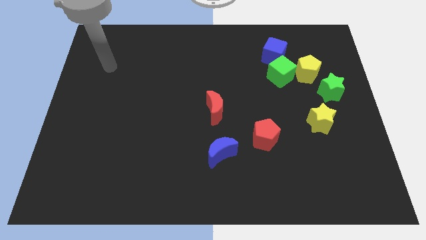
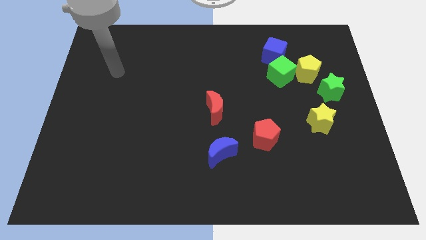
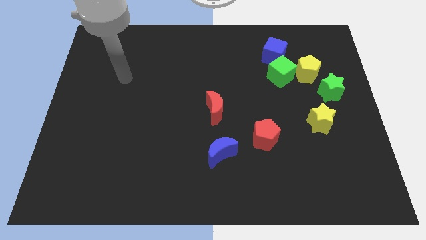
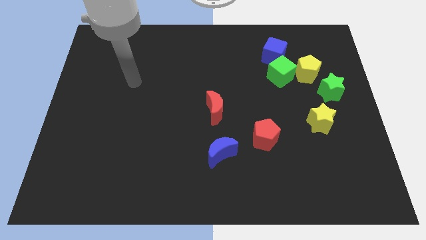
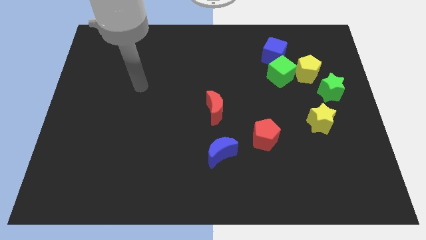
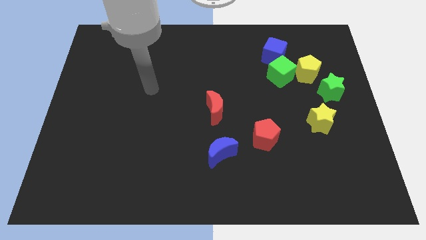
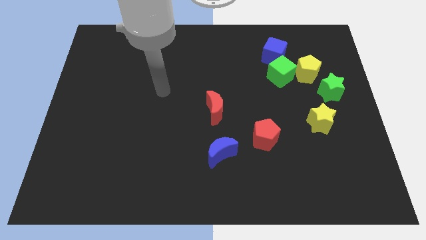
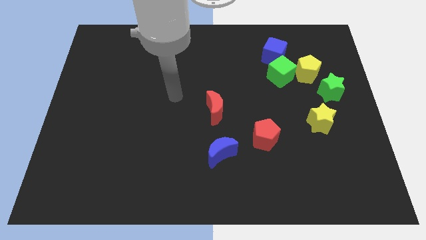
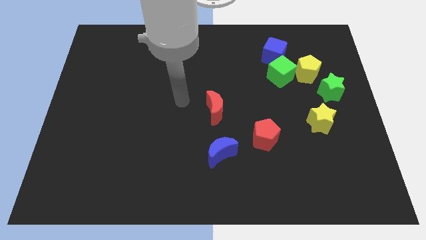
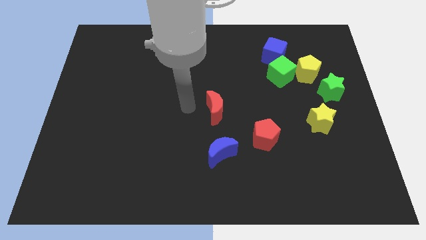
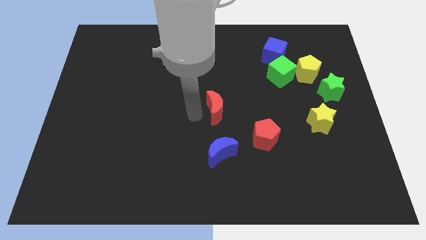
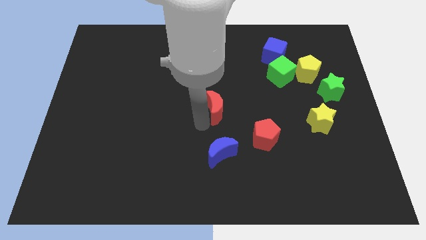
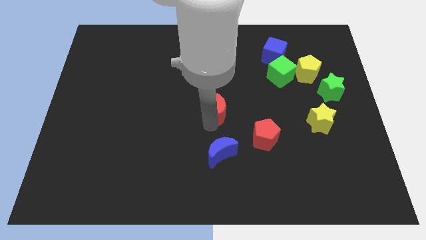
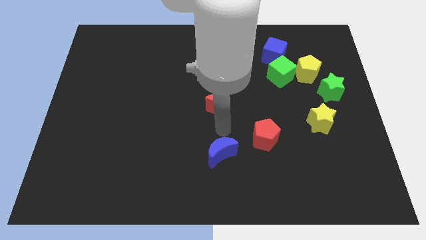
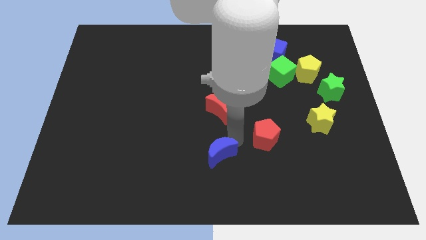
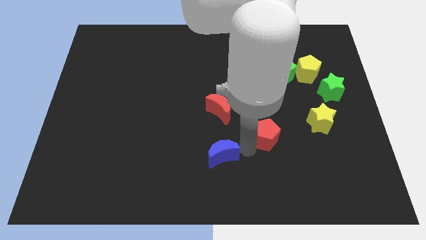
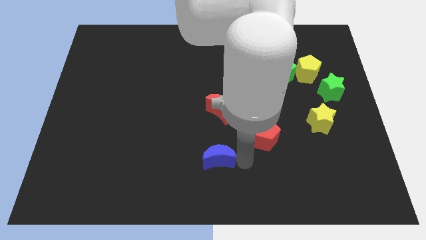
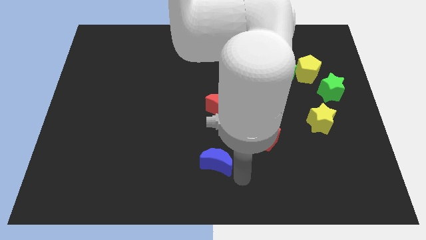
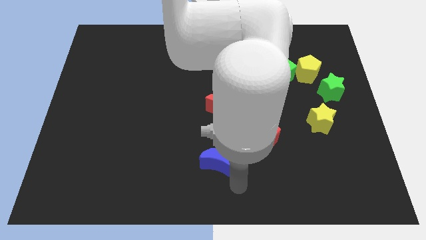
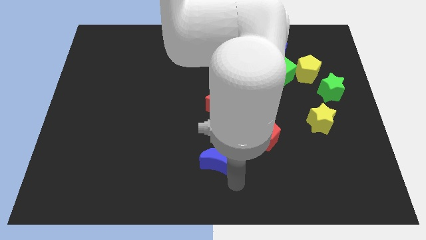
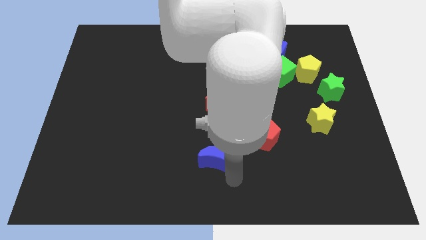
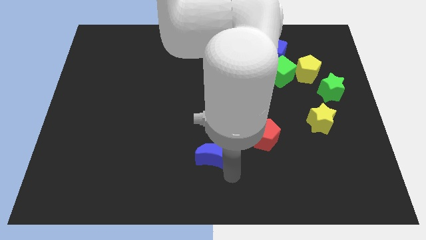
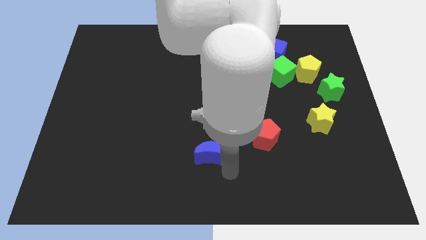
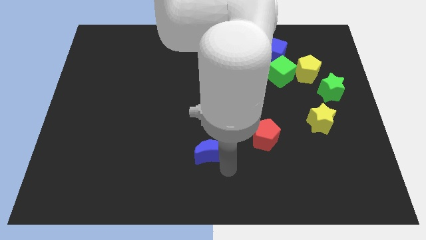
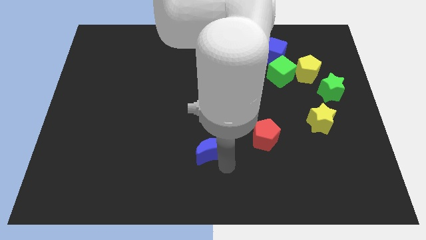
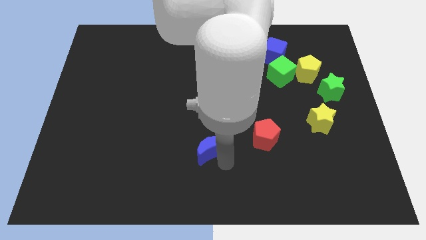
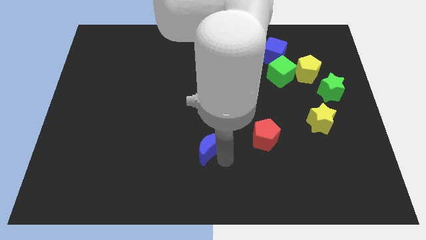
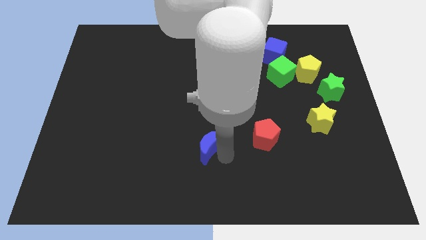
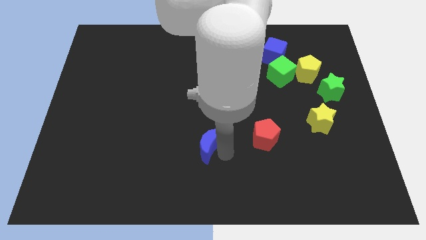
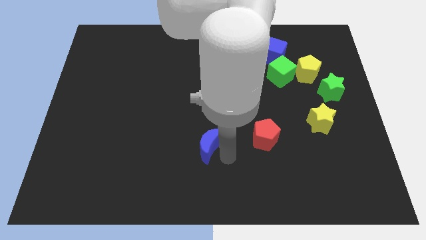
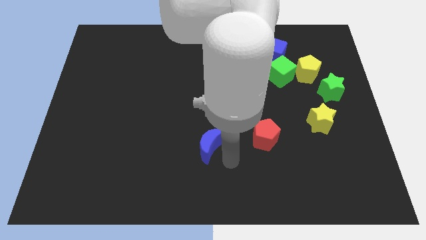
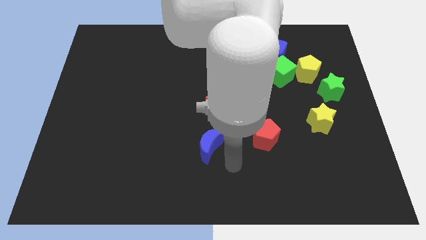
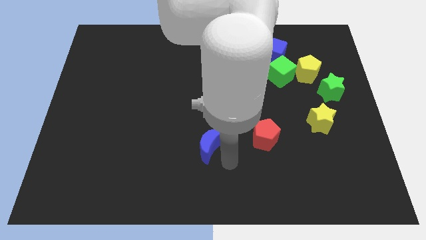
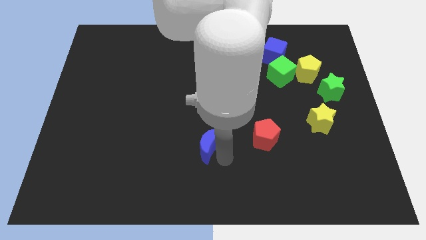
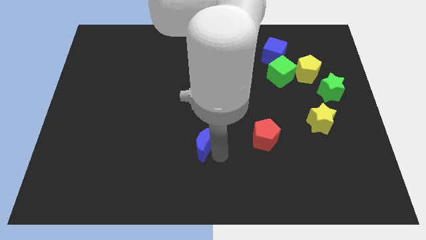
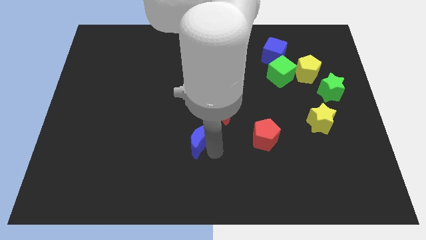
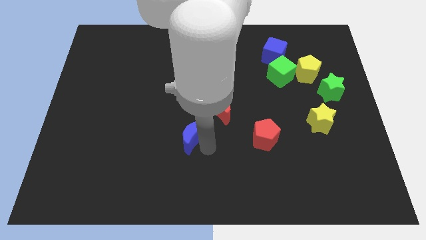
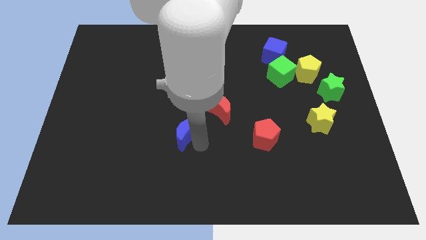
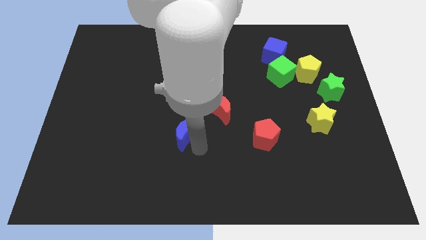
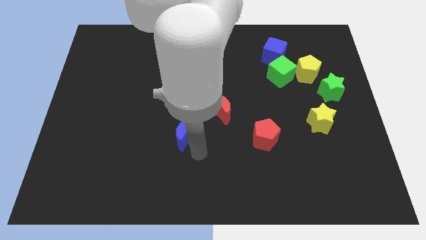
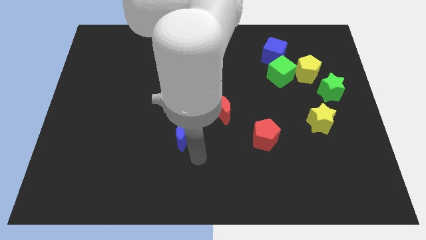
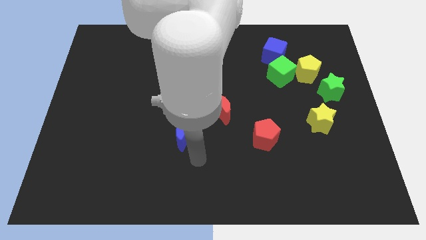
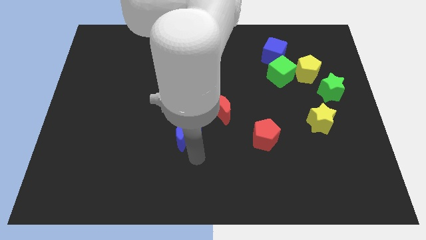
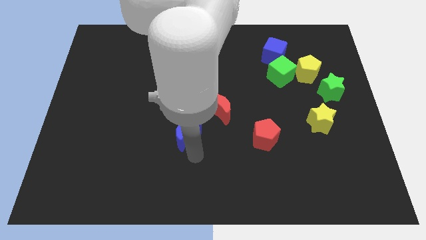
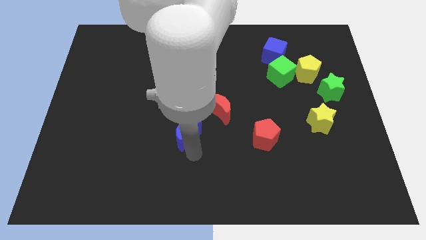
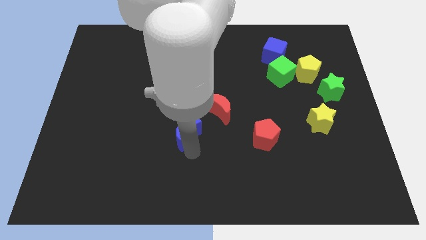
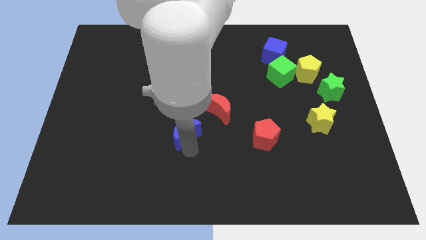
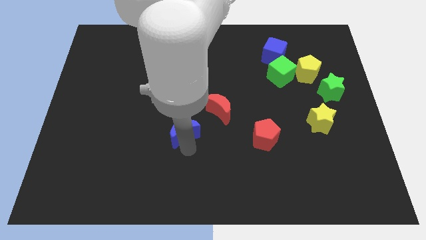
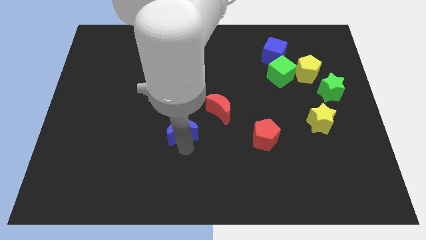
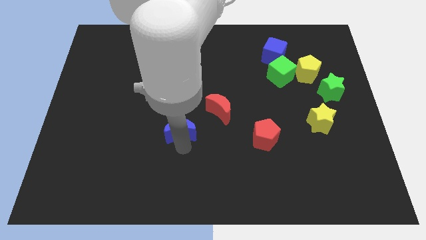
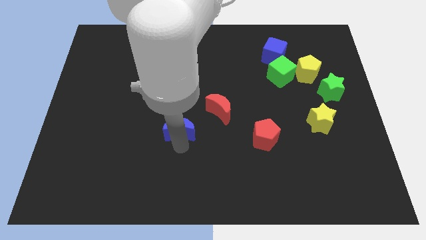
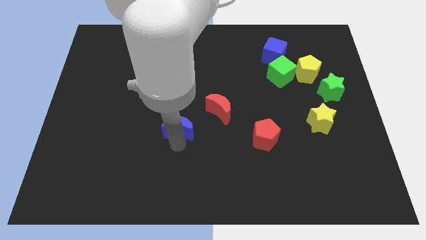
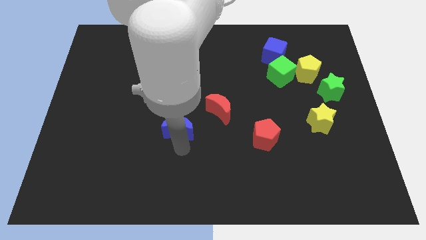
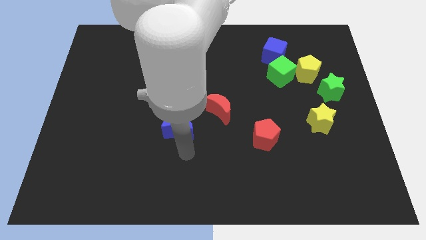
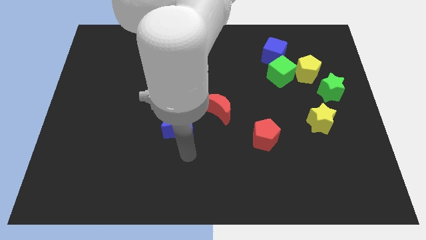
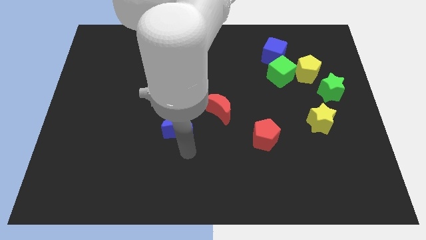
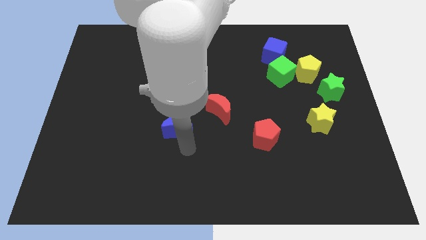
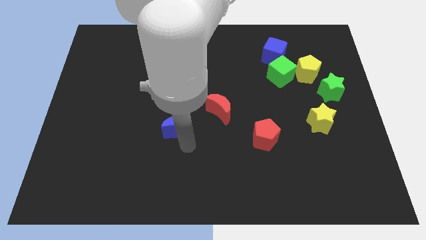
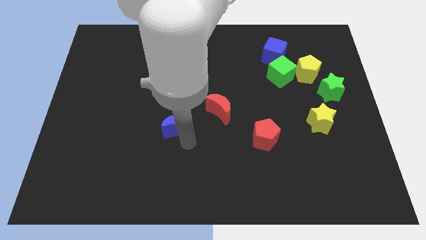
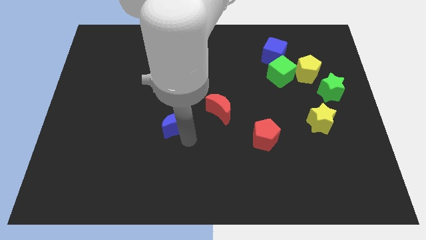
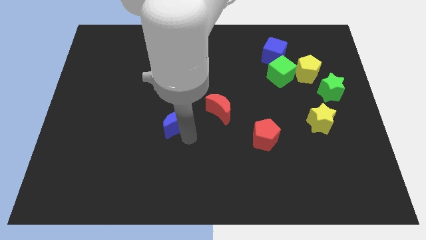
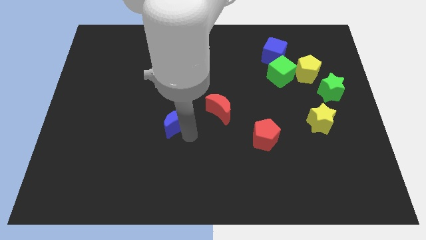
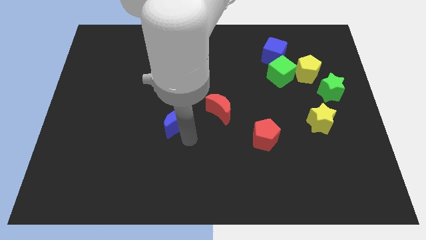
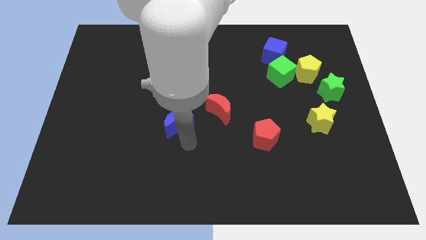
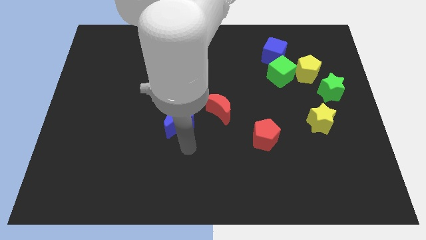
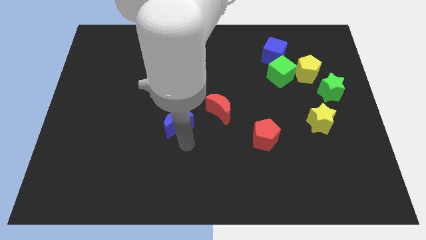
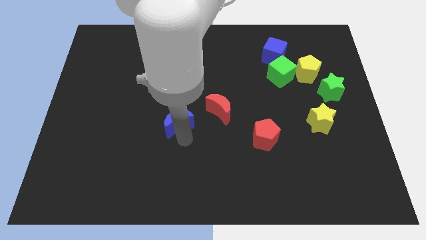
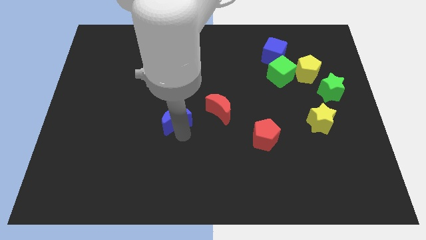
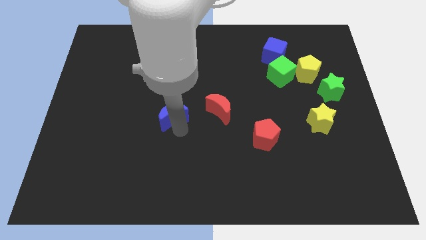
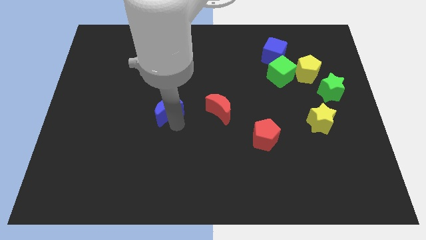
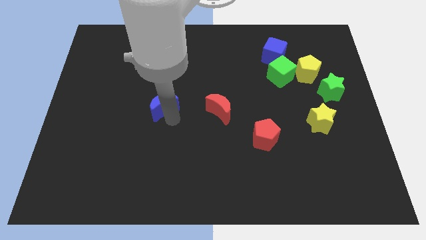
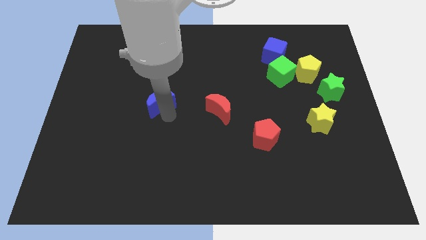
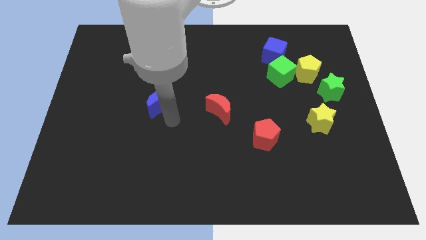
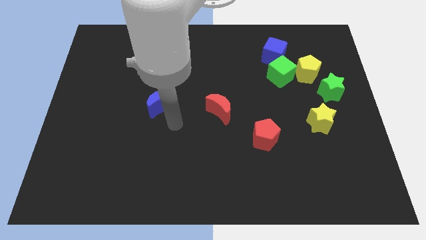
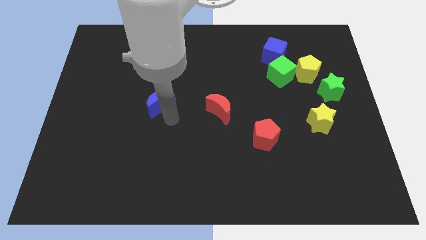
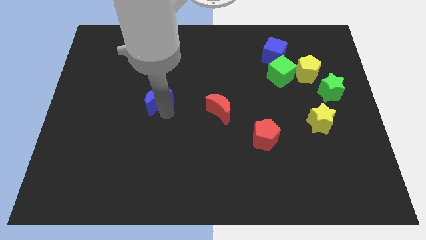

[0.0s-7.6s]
move the blue moon upwards and to the left diagonally
